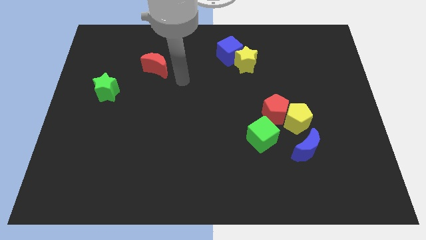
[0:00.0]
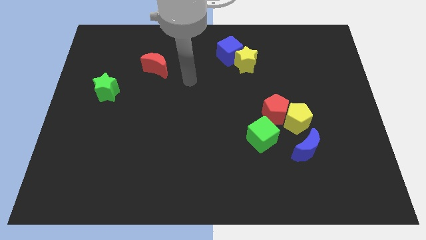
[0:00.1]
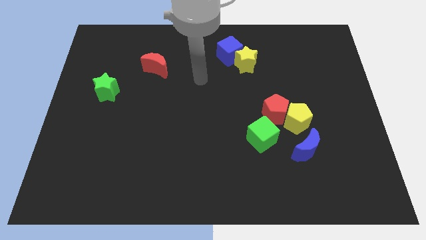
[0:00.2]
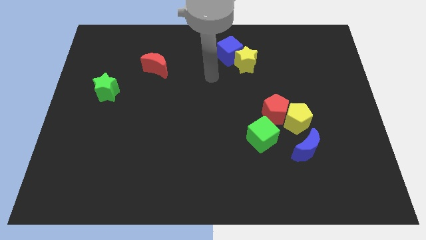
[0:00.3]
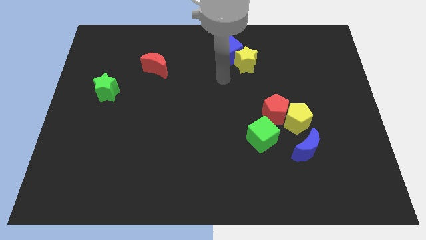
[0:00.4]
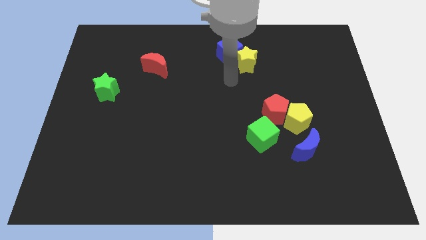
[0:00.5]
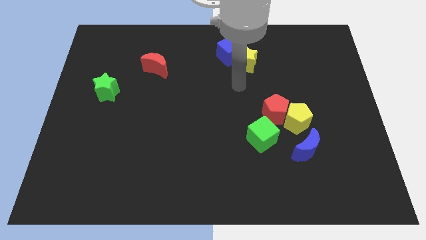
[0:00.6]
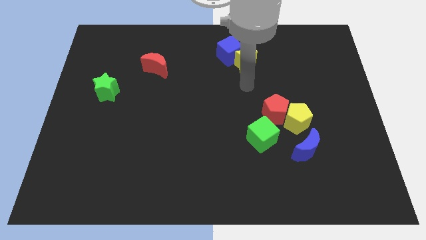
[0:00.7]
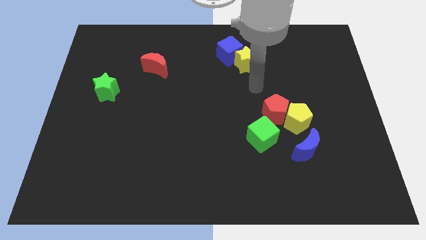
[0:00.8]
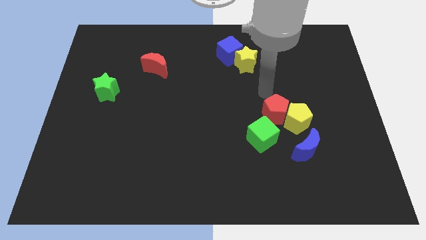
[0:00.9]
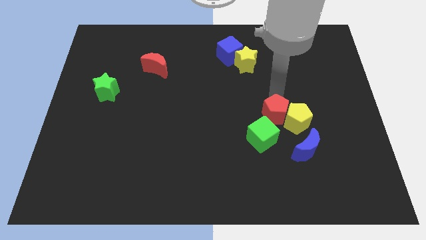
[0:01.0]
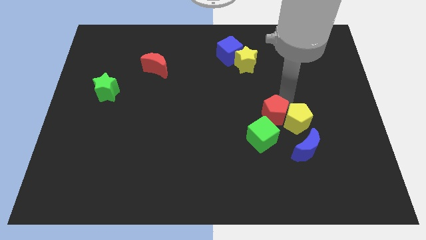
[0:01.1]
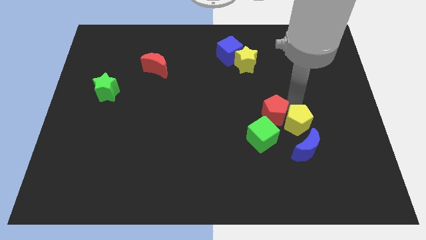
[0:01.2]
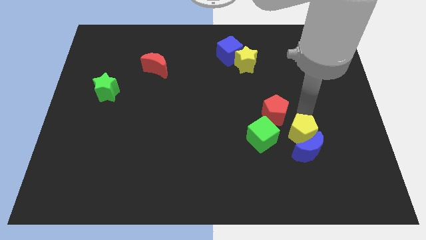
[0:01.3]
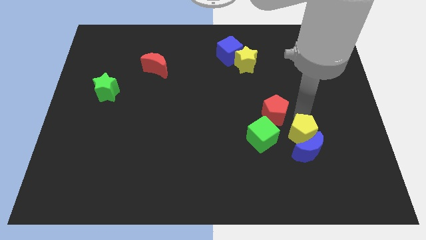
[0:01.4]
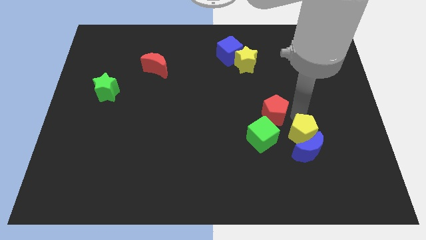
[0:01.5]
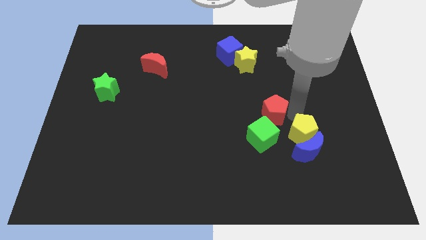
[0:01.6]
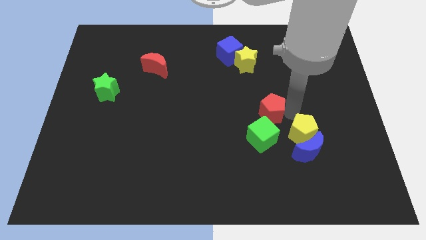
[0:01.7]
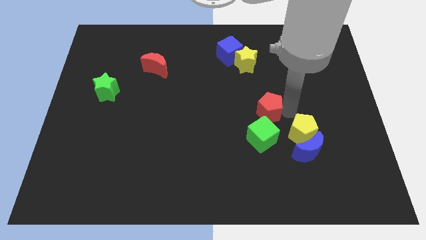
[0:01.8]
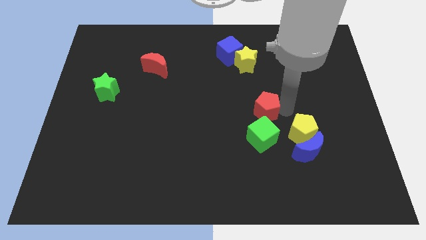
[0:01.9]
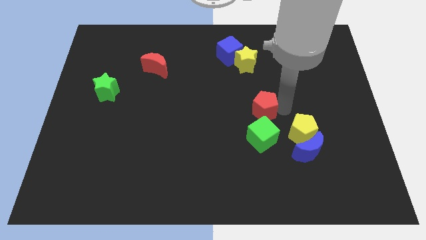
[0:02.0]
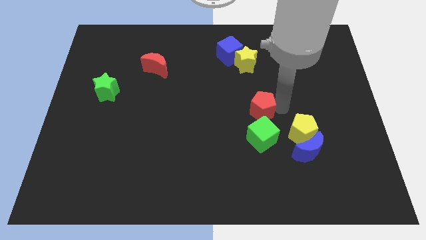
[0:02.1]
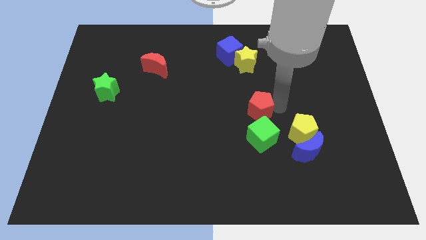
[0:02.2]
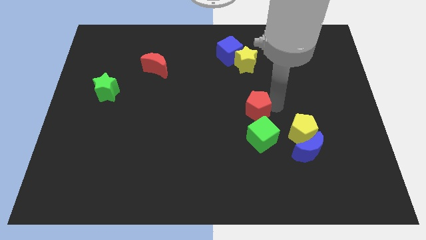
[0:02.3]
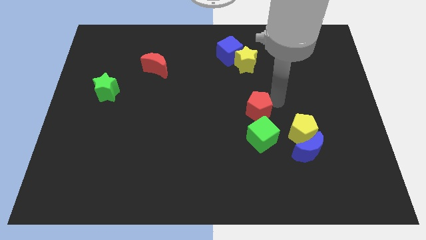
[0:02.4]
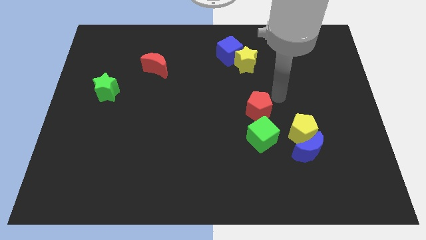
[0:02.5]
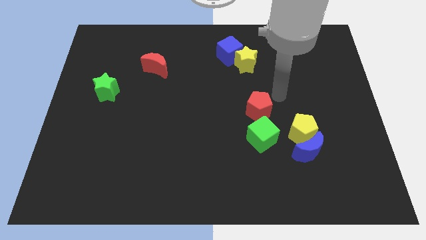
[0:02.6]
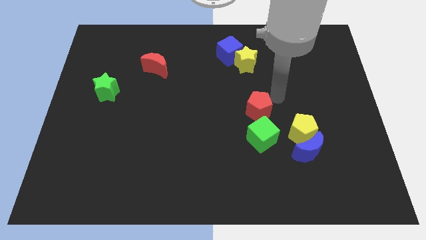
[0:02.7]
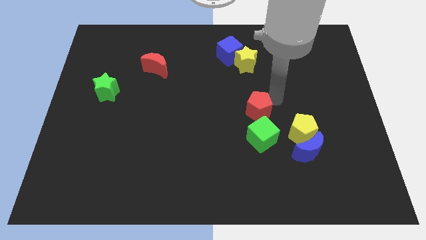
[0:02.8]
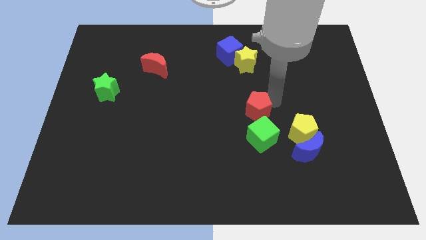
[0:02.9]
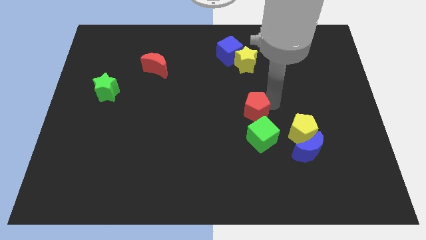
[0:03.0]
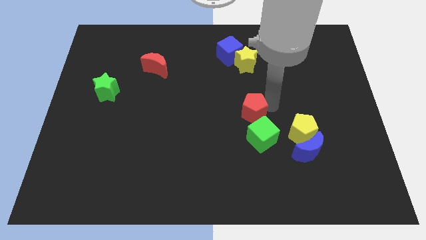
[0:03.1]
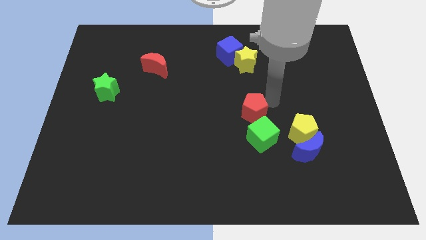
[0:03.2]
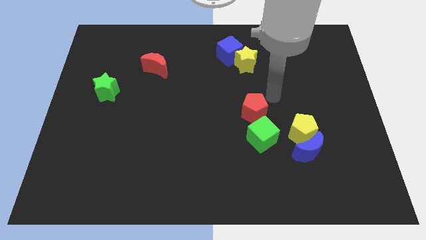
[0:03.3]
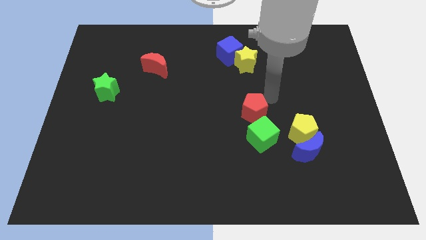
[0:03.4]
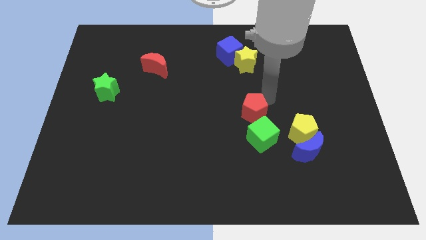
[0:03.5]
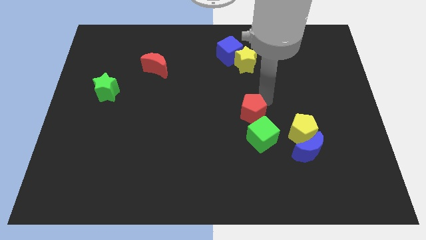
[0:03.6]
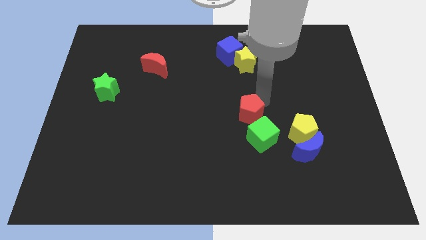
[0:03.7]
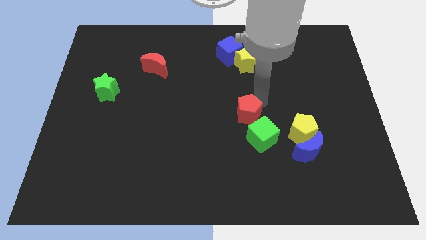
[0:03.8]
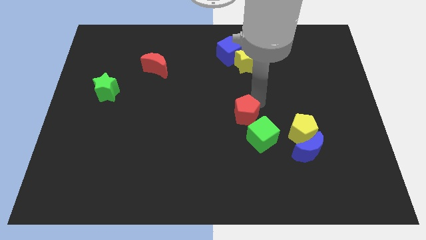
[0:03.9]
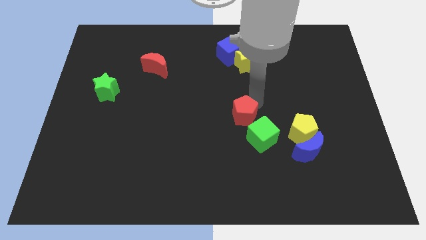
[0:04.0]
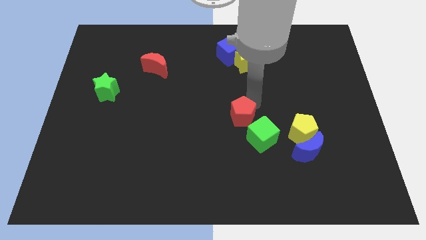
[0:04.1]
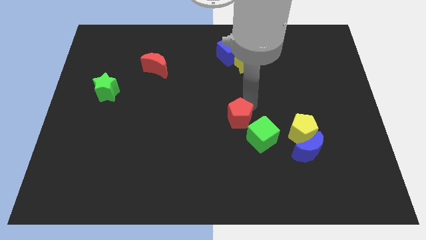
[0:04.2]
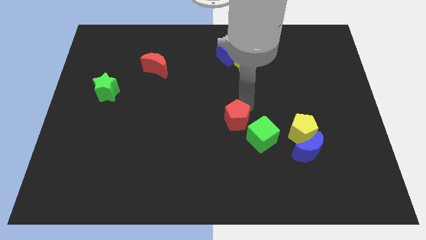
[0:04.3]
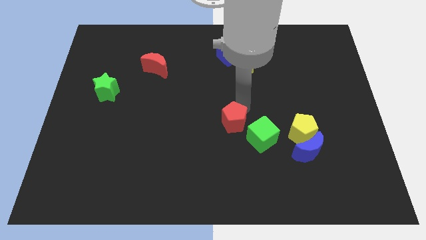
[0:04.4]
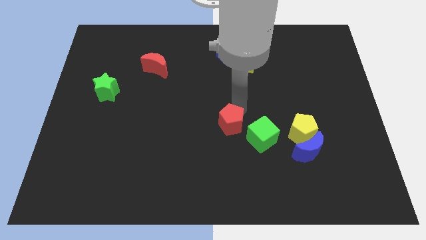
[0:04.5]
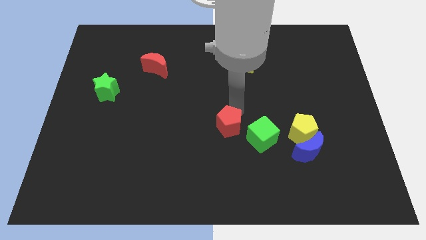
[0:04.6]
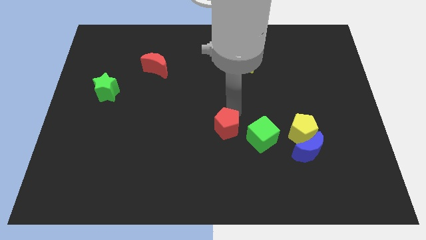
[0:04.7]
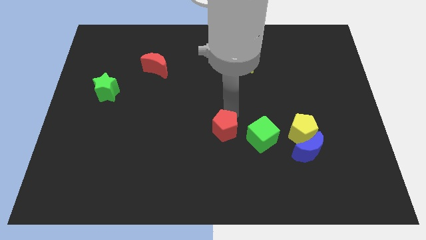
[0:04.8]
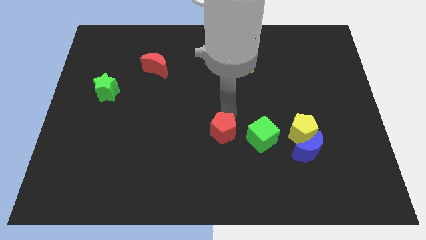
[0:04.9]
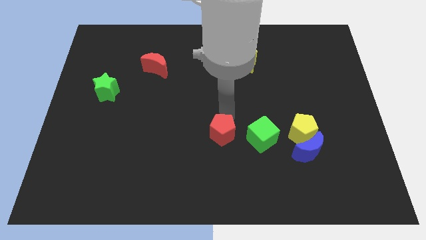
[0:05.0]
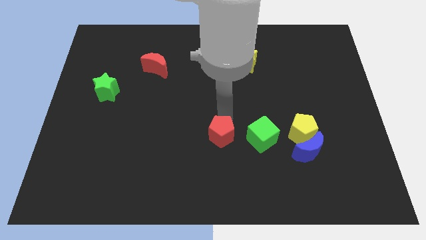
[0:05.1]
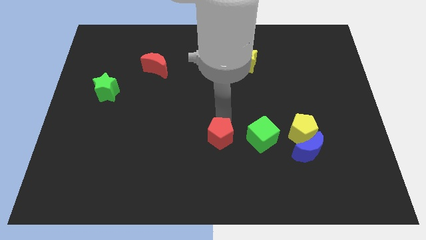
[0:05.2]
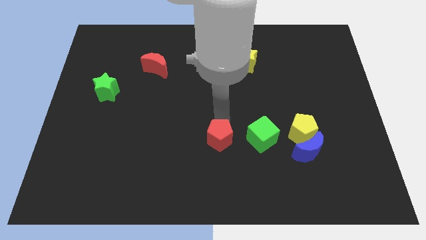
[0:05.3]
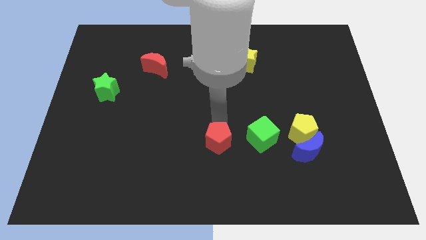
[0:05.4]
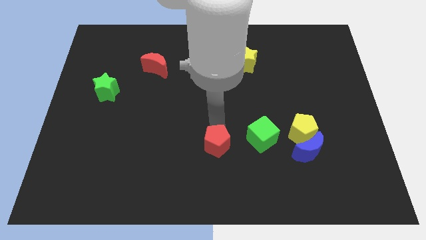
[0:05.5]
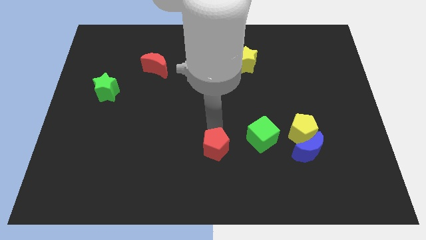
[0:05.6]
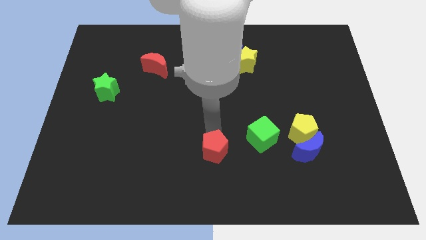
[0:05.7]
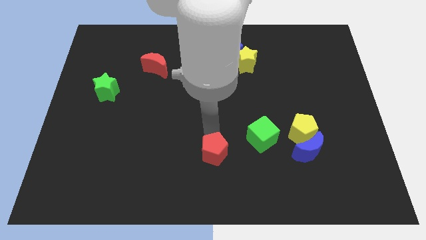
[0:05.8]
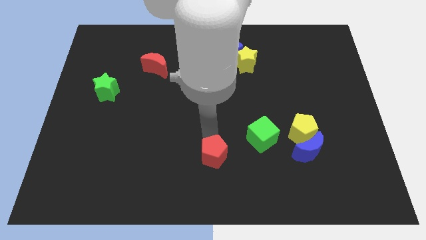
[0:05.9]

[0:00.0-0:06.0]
slide the red pentagon to the bottom side

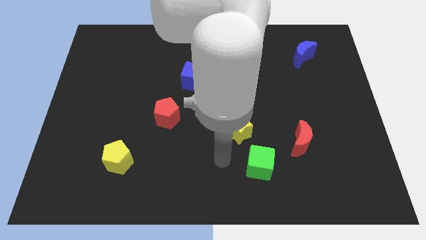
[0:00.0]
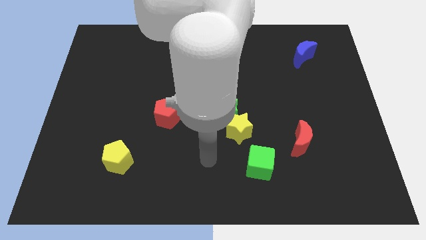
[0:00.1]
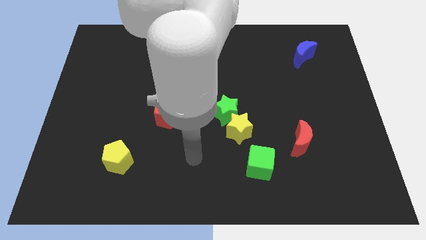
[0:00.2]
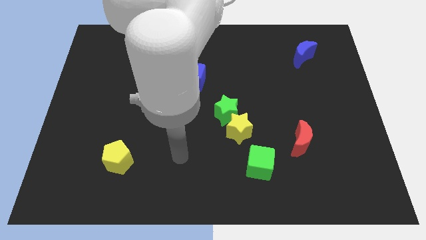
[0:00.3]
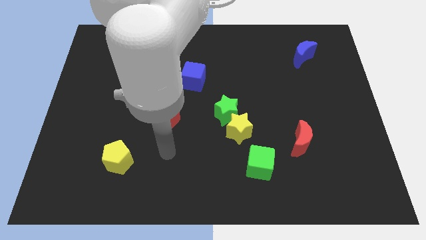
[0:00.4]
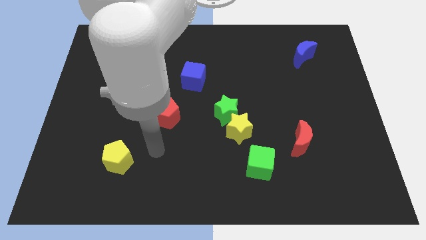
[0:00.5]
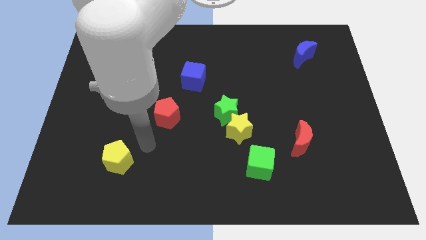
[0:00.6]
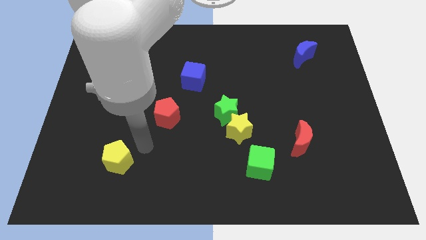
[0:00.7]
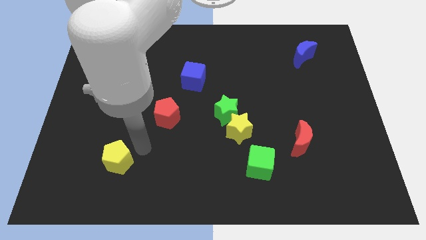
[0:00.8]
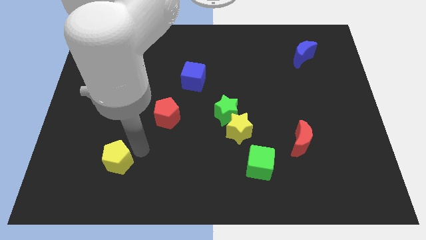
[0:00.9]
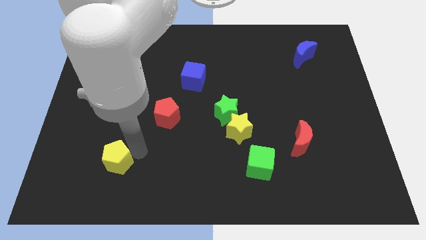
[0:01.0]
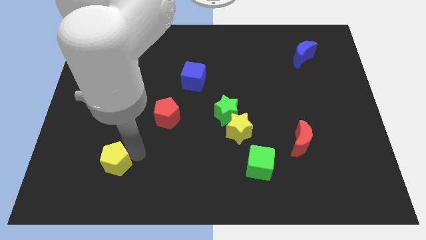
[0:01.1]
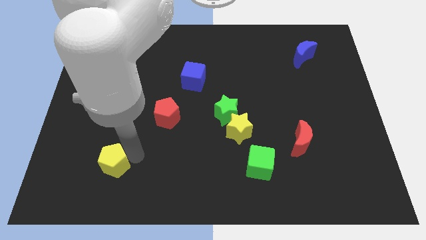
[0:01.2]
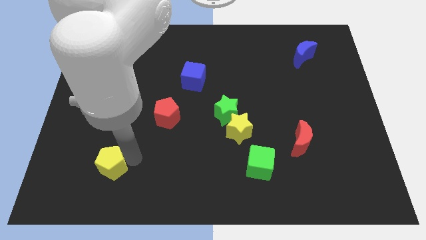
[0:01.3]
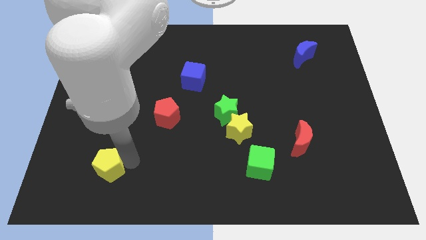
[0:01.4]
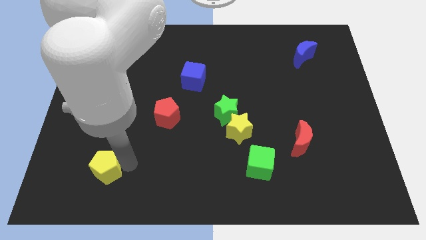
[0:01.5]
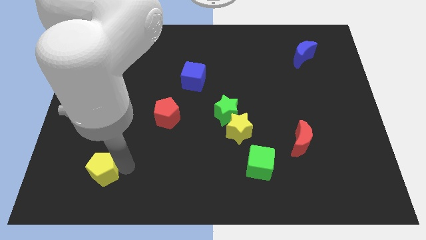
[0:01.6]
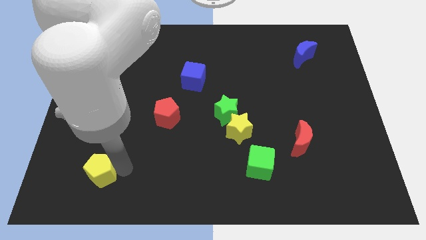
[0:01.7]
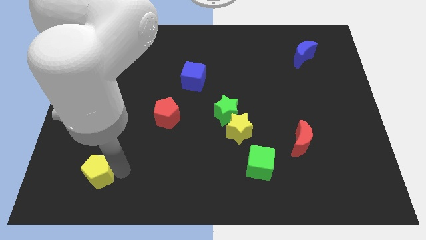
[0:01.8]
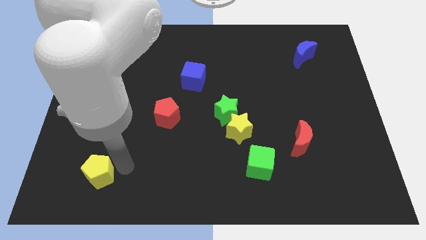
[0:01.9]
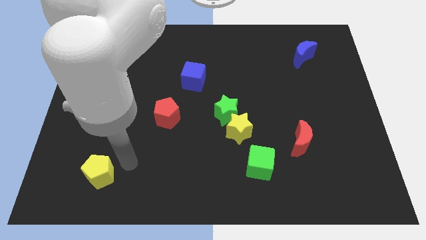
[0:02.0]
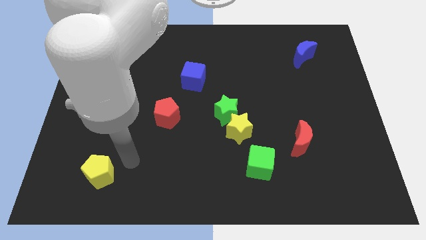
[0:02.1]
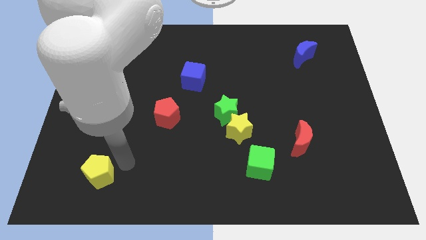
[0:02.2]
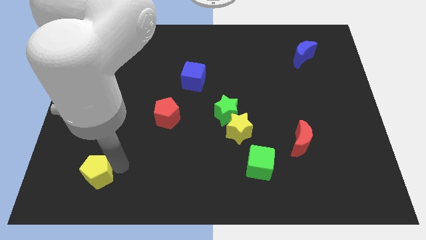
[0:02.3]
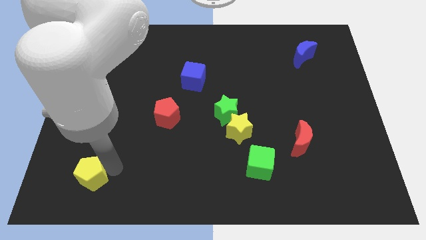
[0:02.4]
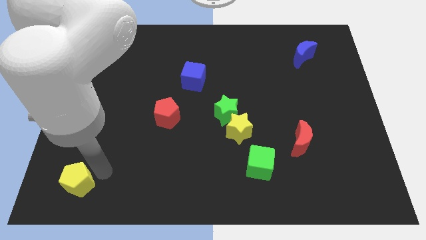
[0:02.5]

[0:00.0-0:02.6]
slide the yellow pentagon to the lower left corner
